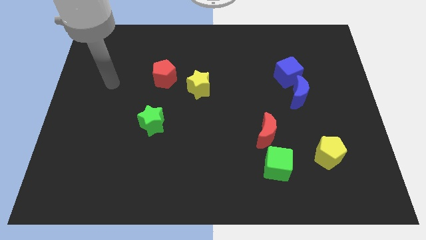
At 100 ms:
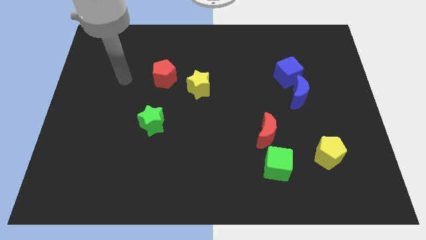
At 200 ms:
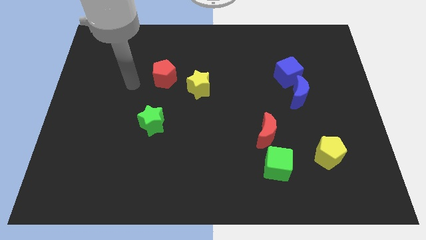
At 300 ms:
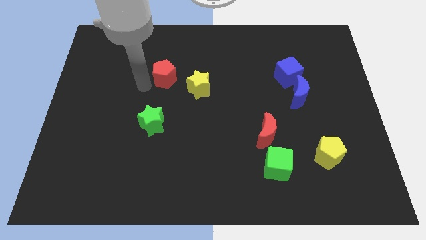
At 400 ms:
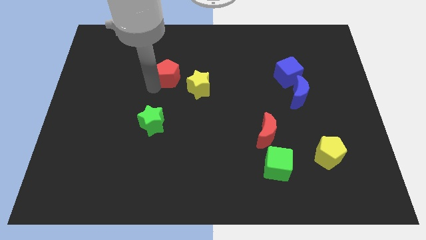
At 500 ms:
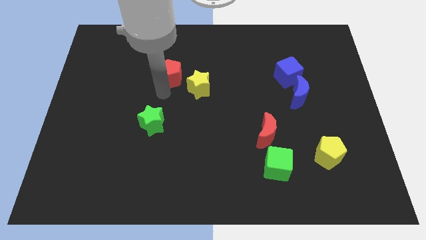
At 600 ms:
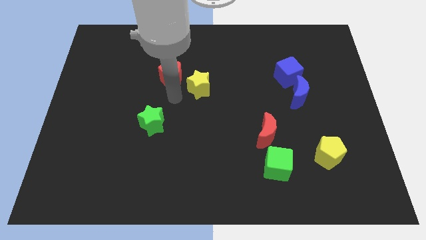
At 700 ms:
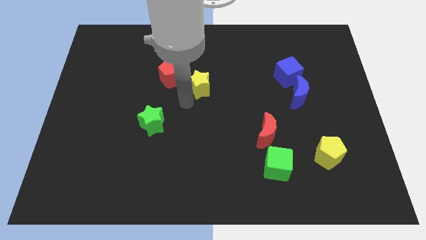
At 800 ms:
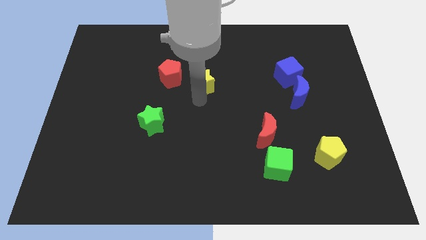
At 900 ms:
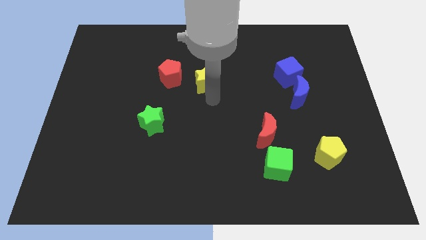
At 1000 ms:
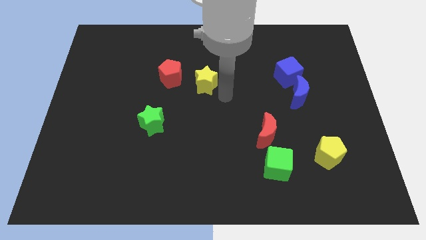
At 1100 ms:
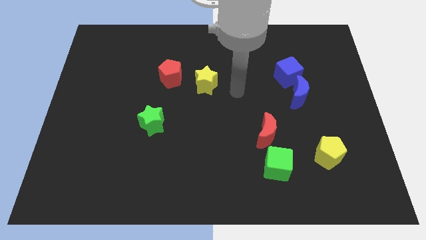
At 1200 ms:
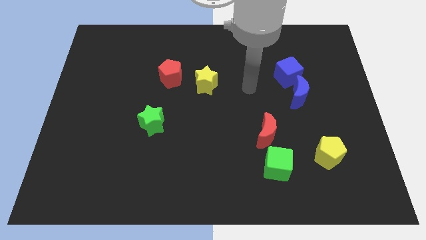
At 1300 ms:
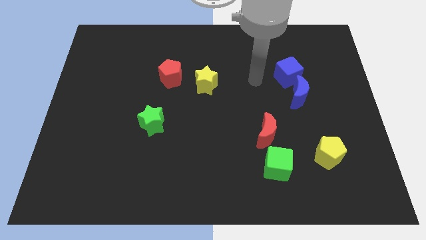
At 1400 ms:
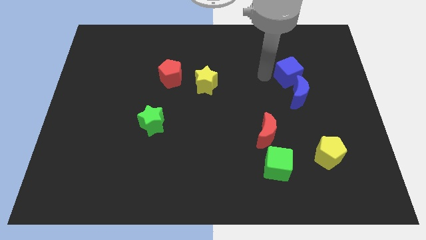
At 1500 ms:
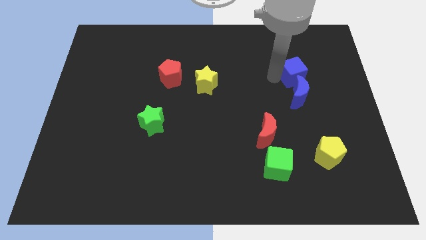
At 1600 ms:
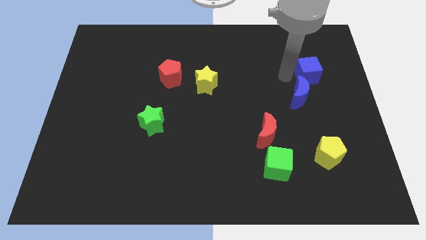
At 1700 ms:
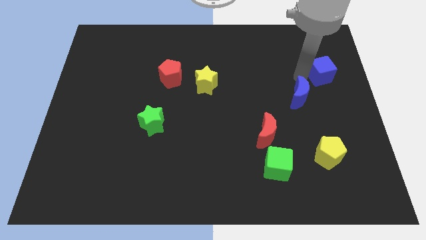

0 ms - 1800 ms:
separate the blue moon from the blue cube

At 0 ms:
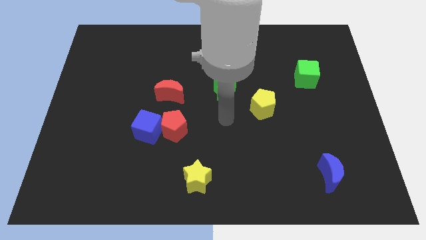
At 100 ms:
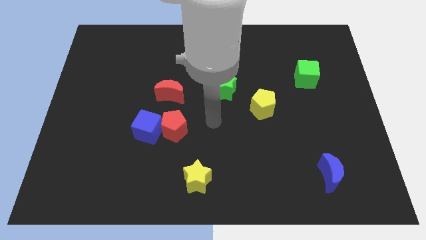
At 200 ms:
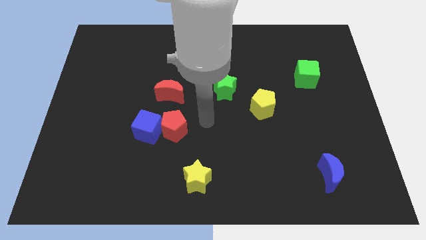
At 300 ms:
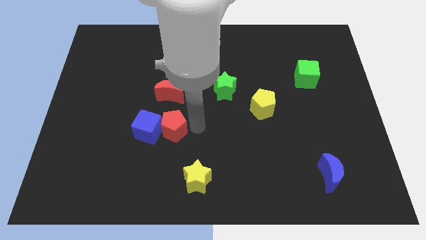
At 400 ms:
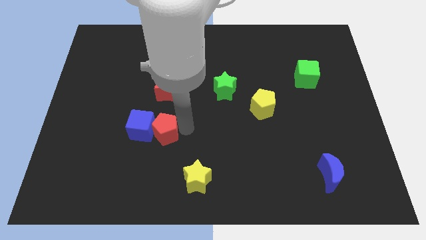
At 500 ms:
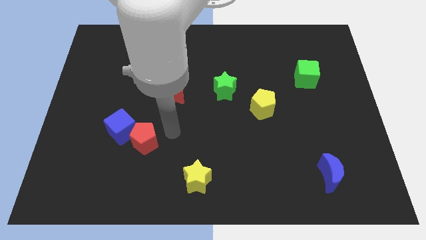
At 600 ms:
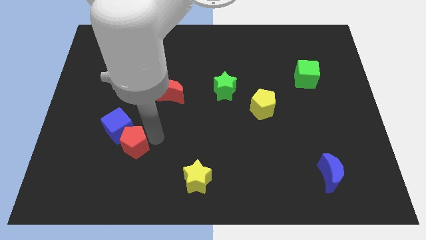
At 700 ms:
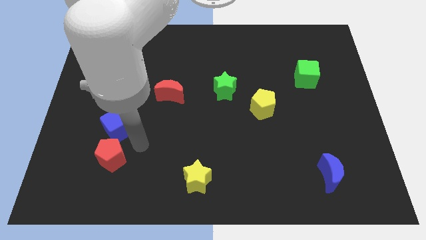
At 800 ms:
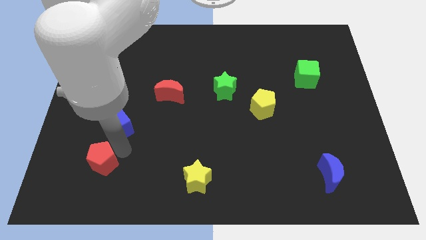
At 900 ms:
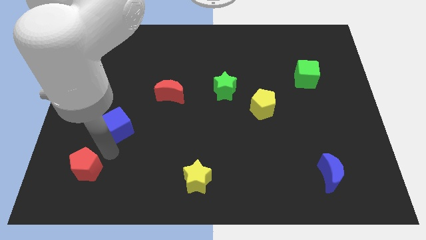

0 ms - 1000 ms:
pull the blue cube apart from the red pentagon

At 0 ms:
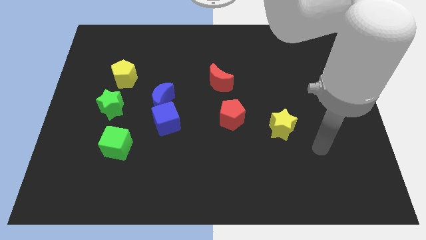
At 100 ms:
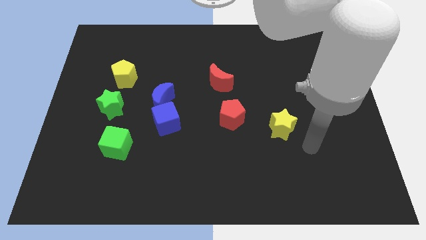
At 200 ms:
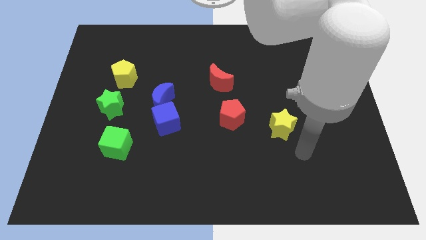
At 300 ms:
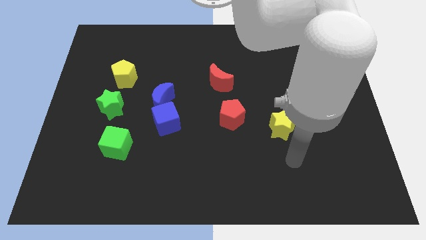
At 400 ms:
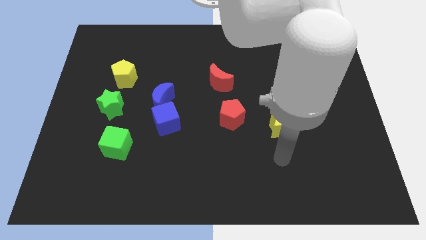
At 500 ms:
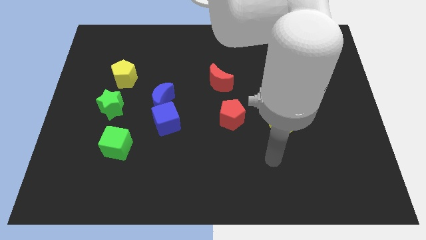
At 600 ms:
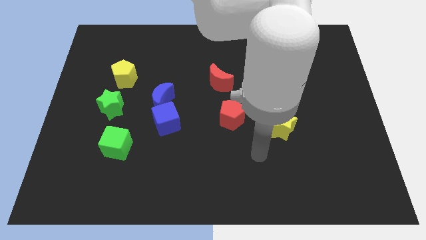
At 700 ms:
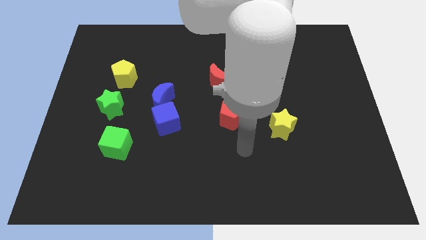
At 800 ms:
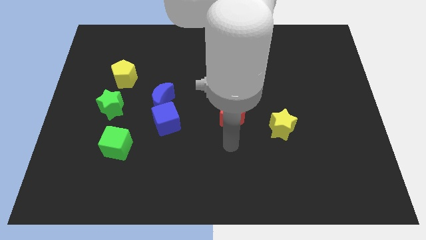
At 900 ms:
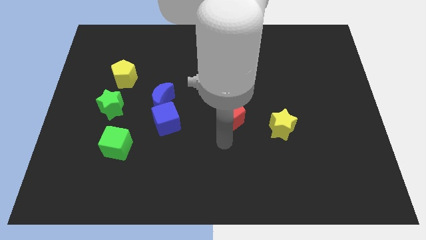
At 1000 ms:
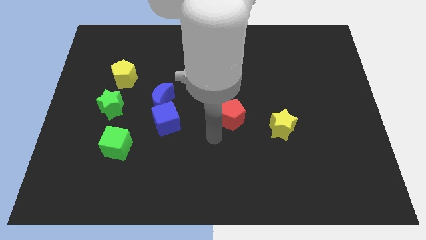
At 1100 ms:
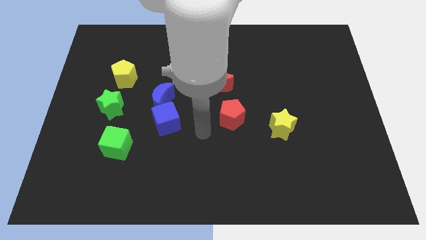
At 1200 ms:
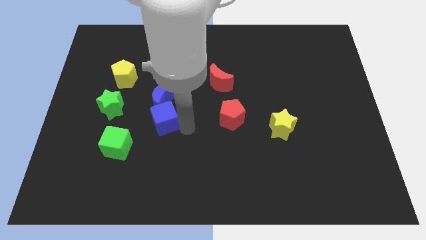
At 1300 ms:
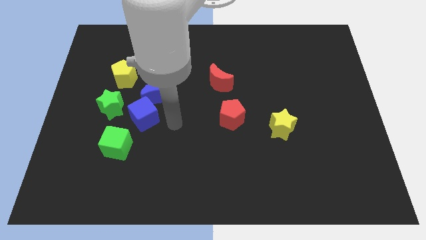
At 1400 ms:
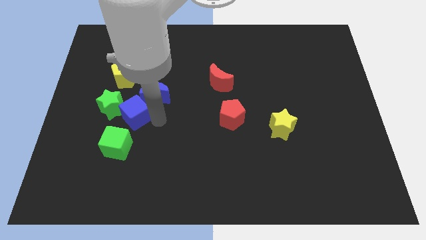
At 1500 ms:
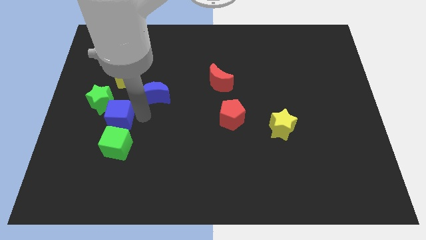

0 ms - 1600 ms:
pull the blue moon apart from the blue cube

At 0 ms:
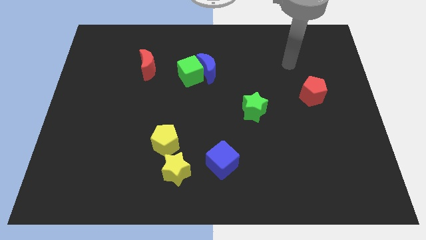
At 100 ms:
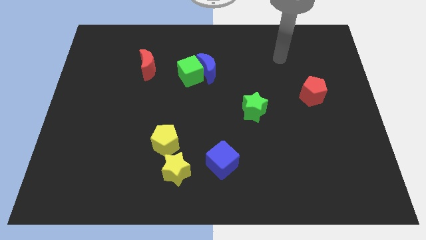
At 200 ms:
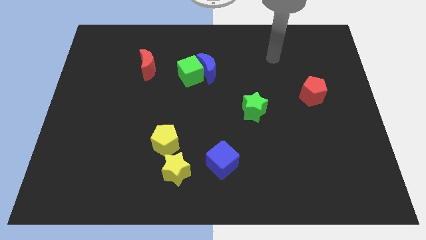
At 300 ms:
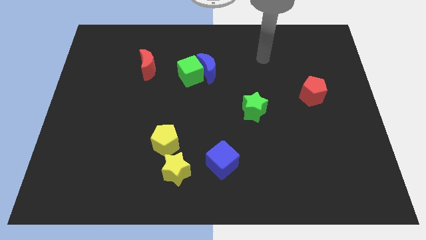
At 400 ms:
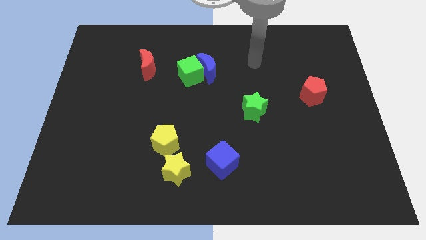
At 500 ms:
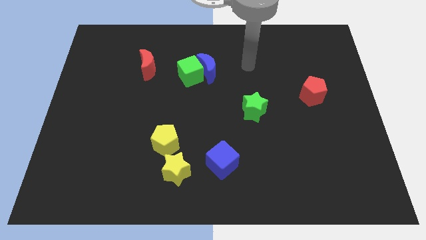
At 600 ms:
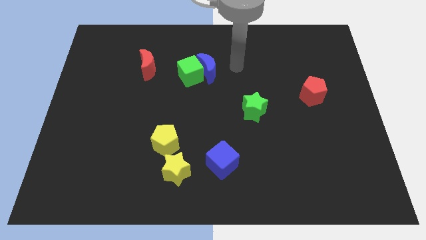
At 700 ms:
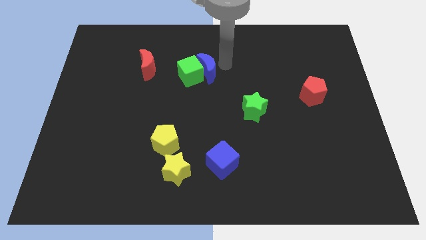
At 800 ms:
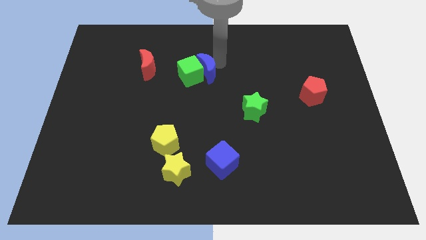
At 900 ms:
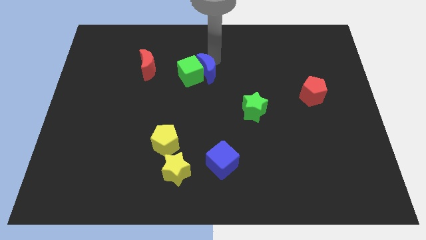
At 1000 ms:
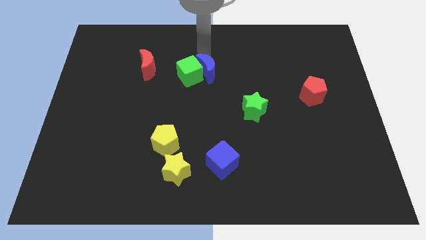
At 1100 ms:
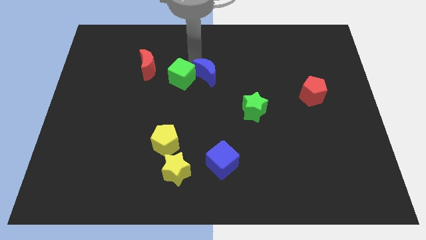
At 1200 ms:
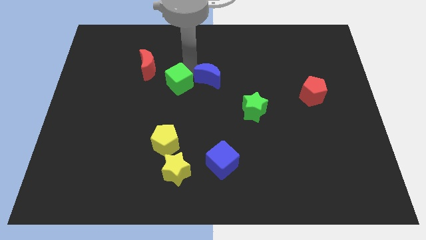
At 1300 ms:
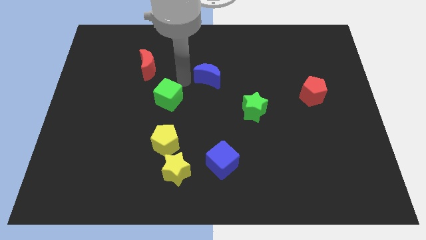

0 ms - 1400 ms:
move the blue moon away from the green cube

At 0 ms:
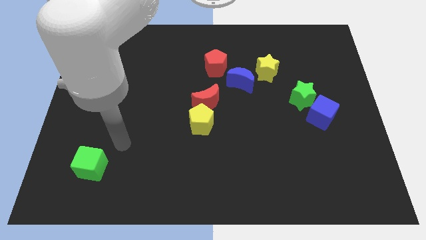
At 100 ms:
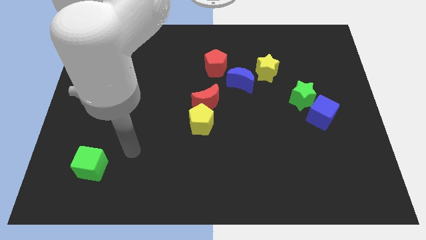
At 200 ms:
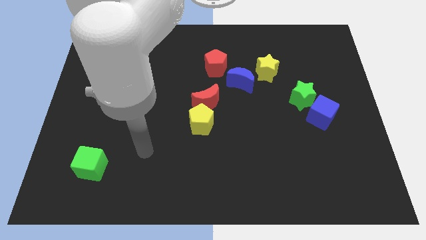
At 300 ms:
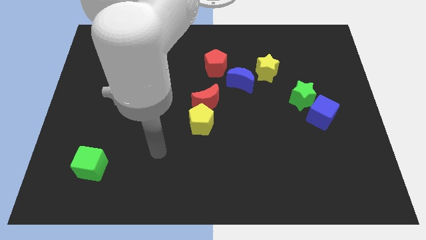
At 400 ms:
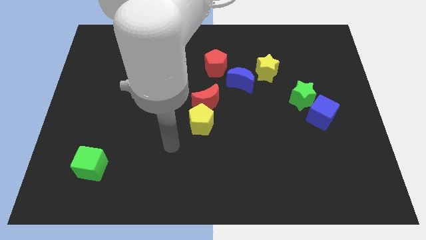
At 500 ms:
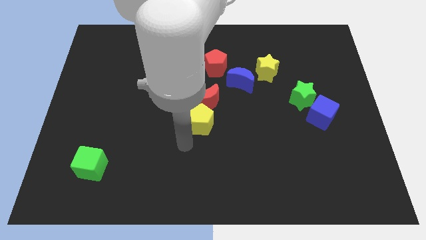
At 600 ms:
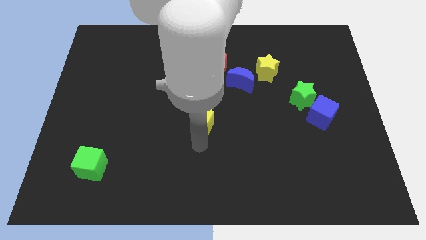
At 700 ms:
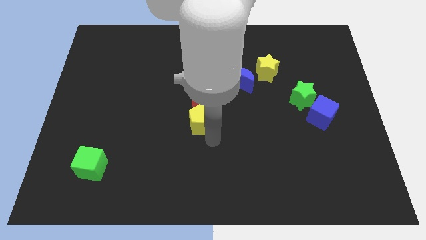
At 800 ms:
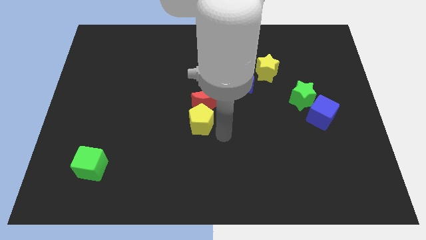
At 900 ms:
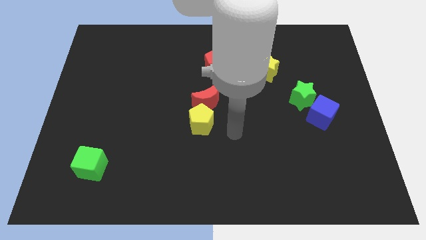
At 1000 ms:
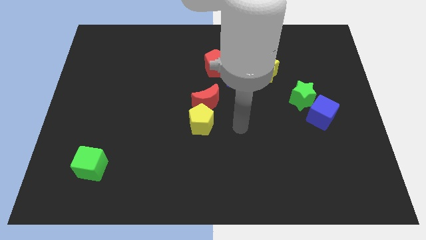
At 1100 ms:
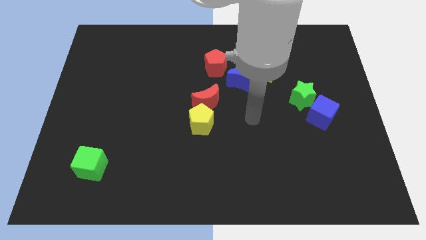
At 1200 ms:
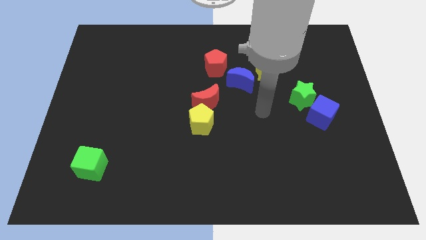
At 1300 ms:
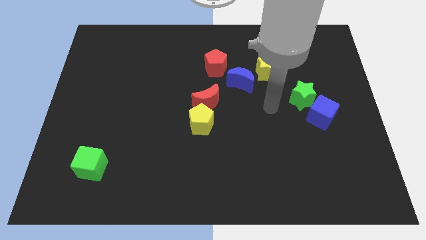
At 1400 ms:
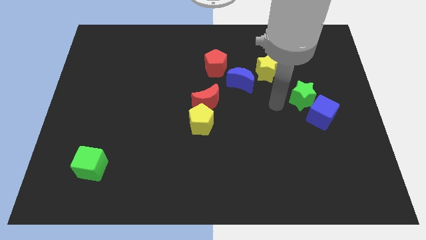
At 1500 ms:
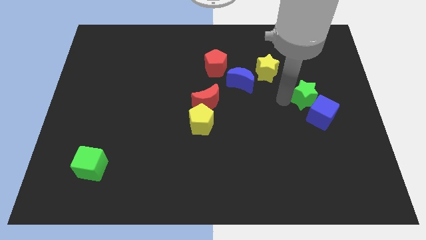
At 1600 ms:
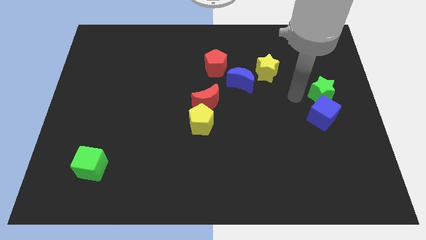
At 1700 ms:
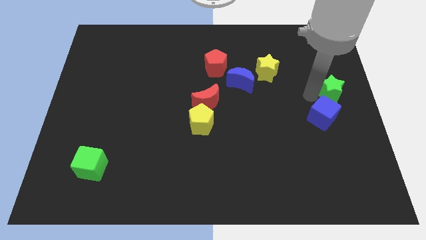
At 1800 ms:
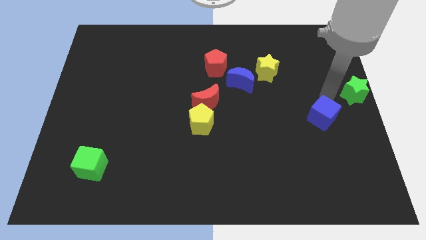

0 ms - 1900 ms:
move the blue cube away from the green star

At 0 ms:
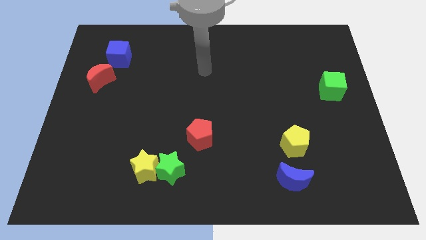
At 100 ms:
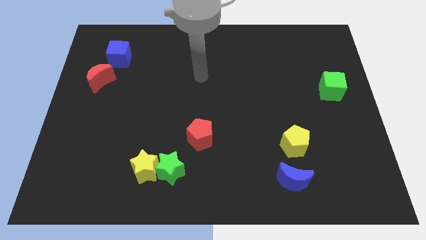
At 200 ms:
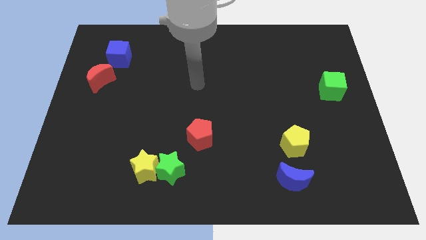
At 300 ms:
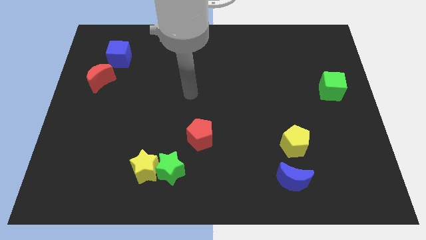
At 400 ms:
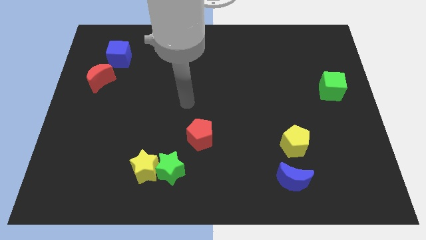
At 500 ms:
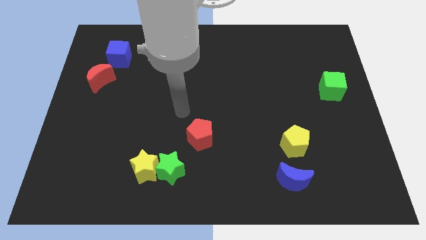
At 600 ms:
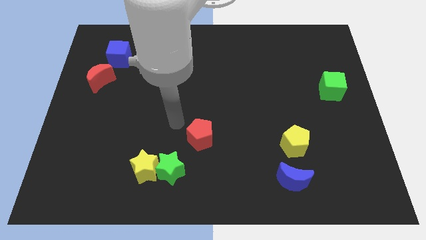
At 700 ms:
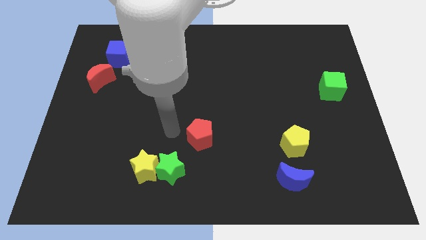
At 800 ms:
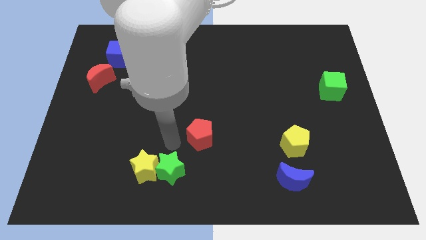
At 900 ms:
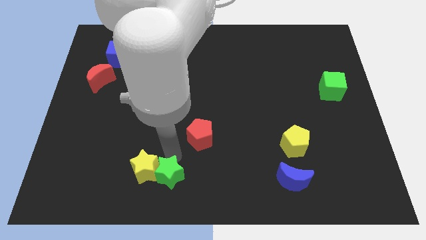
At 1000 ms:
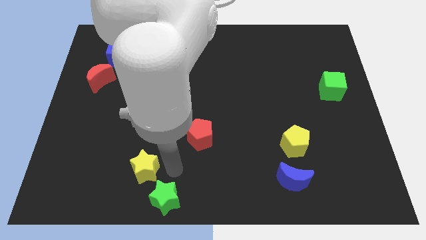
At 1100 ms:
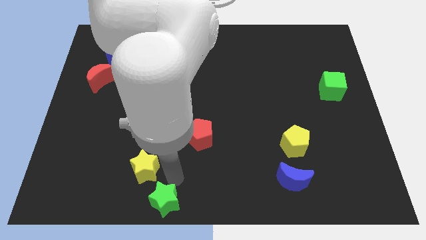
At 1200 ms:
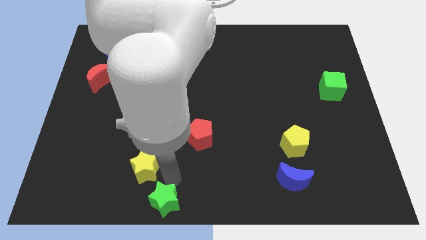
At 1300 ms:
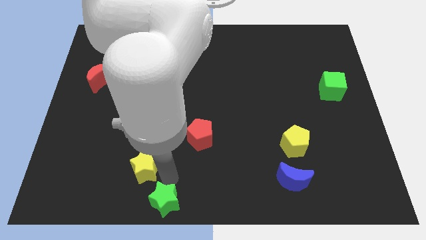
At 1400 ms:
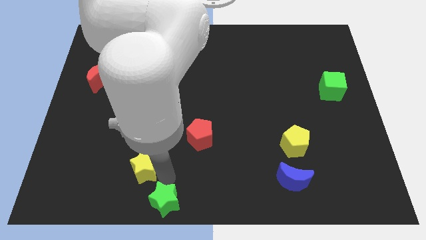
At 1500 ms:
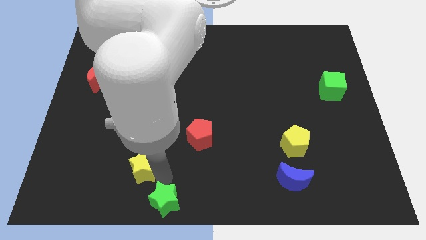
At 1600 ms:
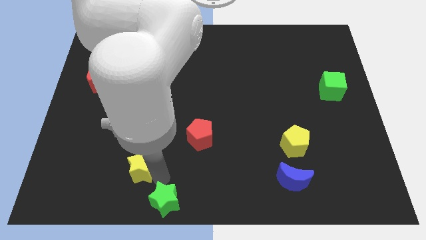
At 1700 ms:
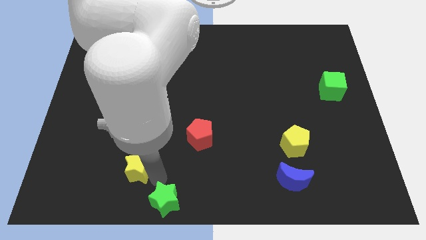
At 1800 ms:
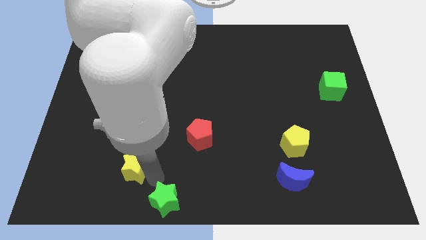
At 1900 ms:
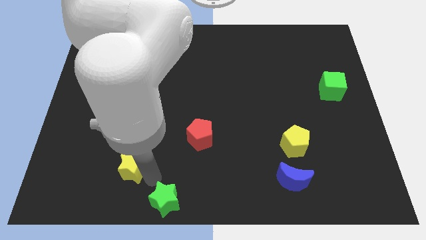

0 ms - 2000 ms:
move the yellow star away from the green star
